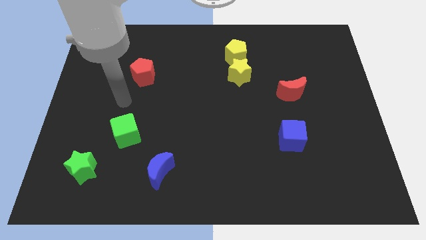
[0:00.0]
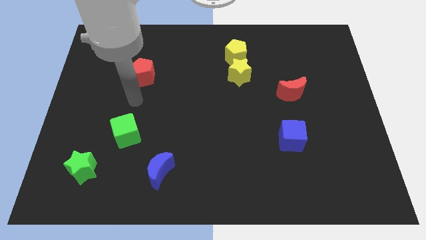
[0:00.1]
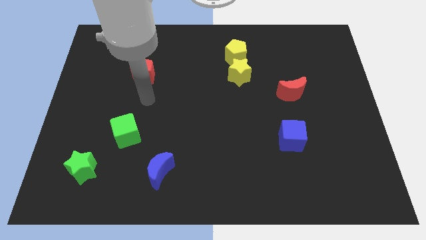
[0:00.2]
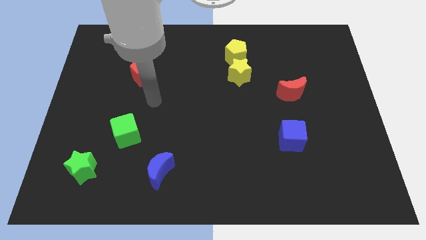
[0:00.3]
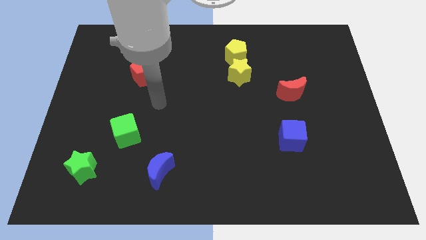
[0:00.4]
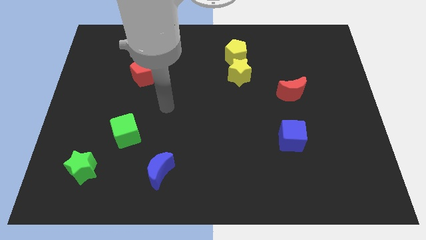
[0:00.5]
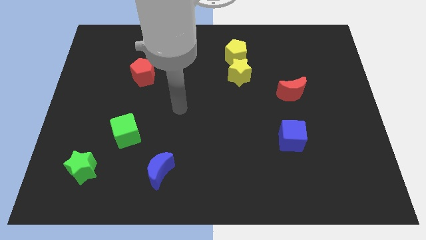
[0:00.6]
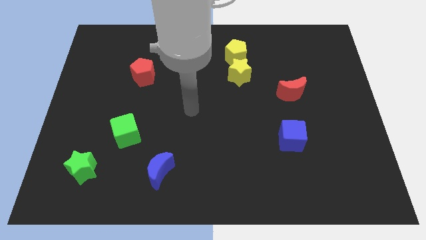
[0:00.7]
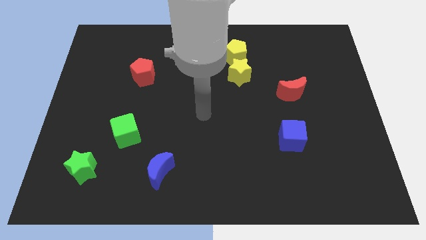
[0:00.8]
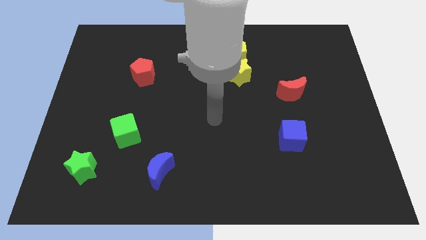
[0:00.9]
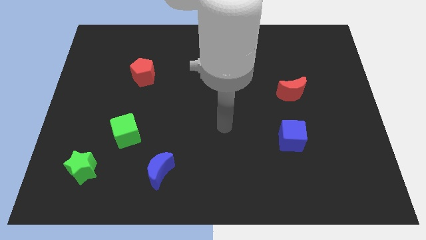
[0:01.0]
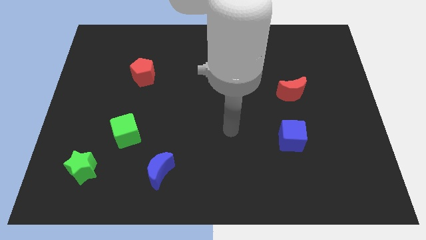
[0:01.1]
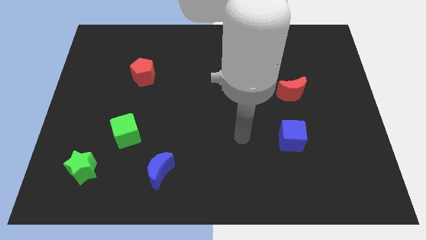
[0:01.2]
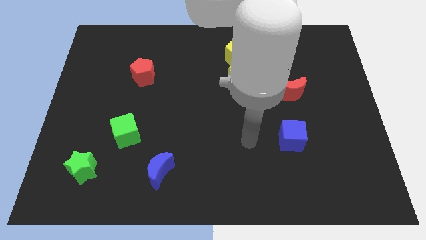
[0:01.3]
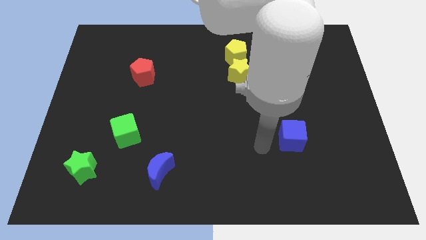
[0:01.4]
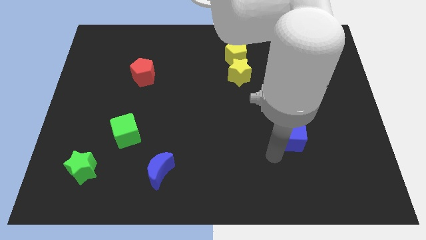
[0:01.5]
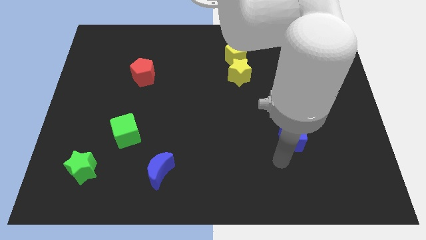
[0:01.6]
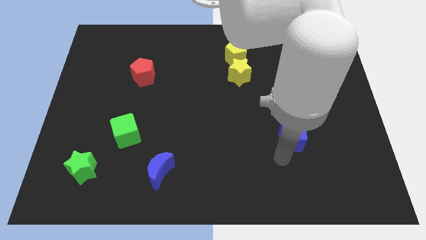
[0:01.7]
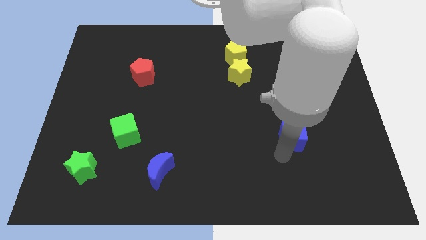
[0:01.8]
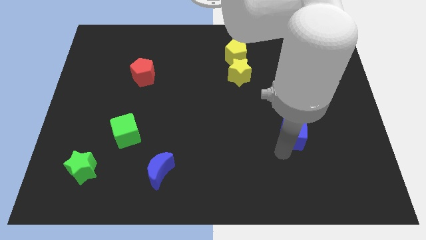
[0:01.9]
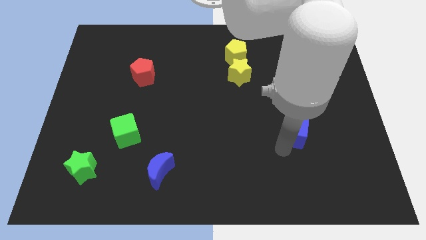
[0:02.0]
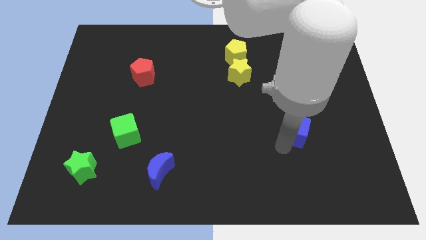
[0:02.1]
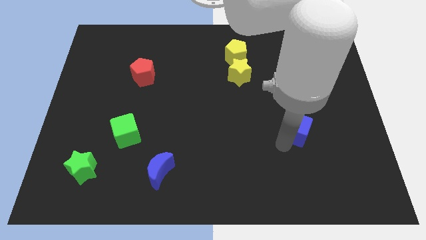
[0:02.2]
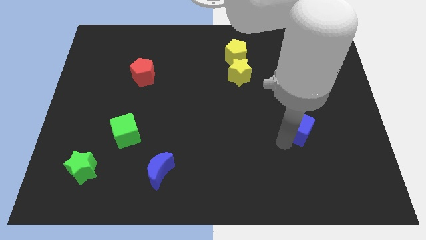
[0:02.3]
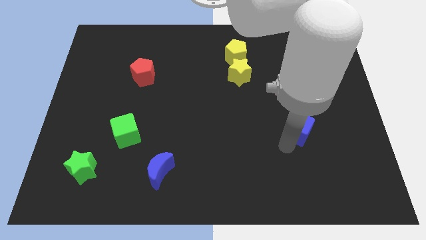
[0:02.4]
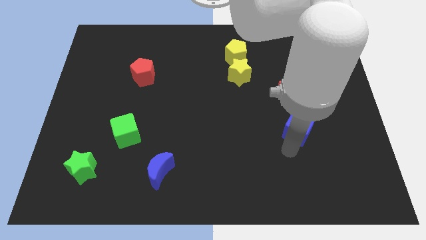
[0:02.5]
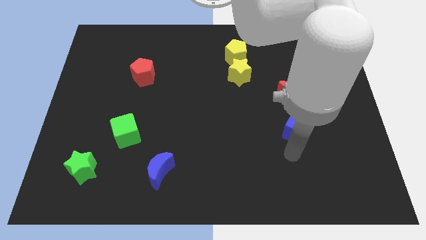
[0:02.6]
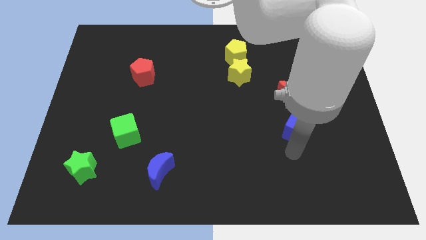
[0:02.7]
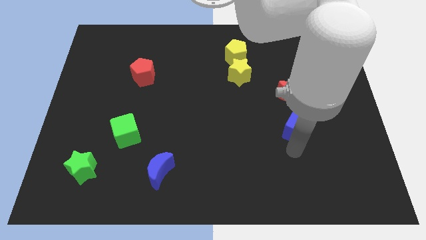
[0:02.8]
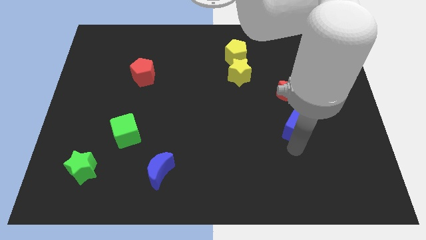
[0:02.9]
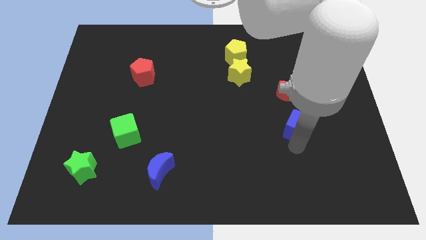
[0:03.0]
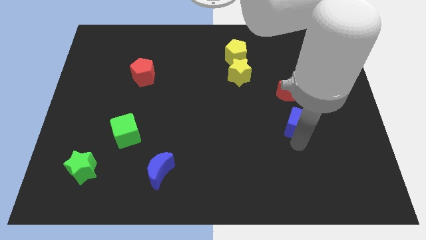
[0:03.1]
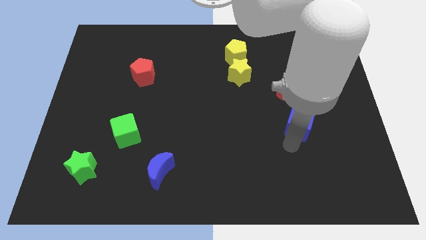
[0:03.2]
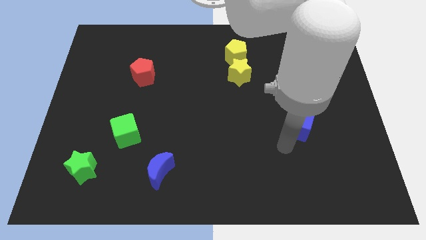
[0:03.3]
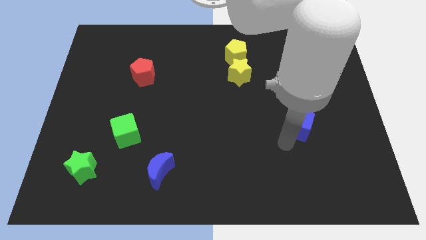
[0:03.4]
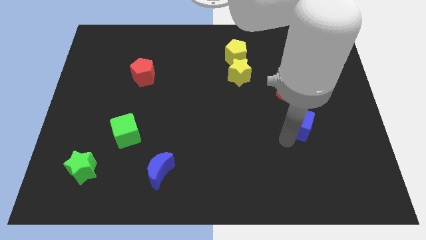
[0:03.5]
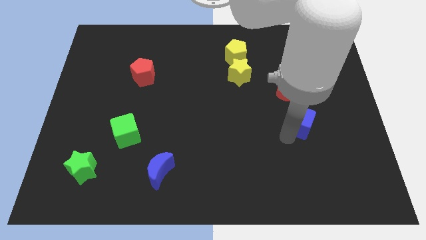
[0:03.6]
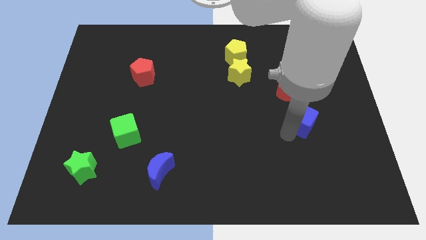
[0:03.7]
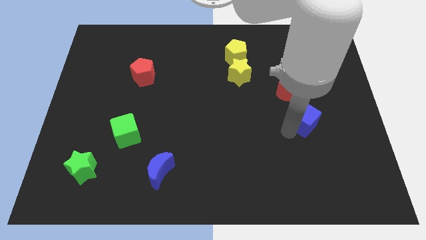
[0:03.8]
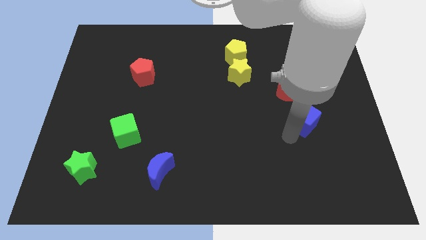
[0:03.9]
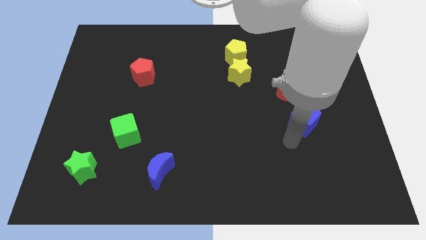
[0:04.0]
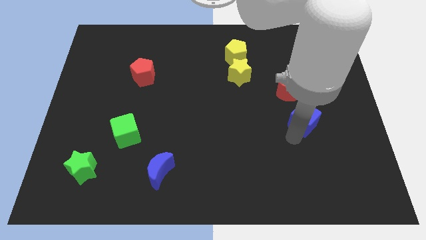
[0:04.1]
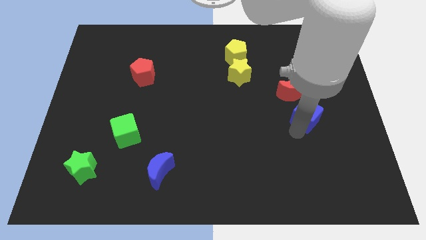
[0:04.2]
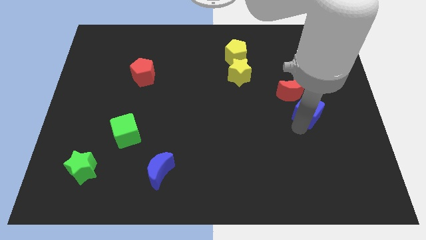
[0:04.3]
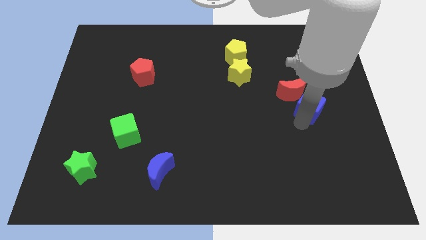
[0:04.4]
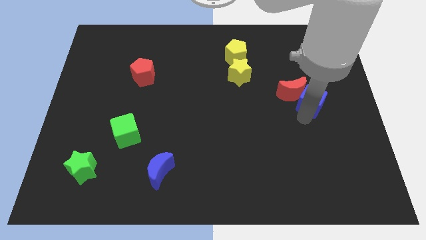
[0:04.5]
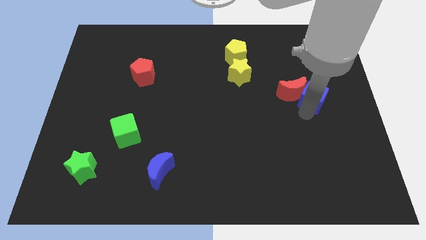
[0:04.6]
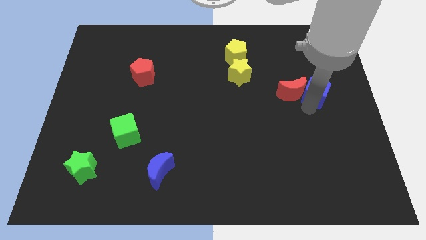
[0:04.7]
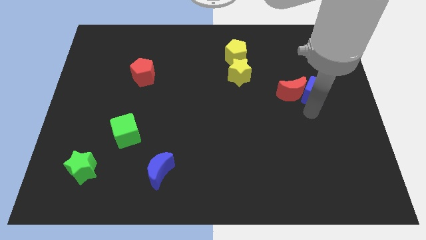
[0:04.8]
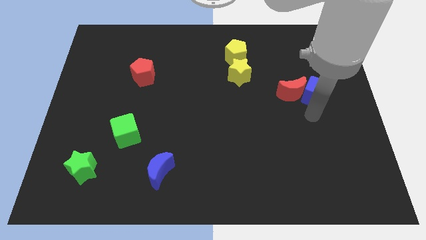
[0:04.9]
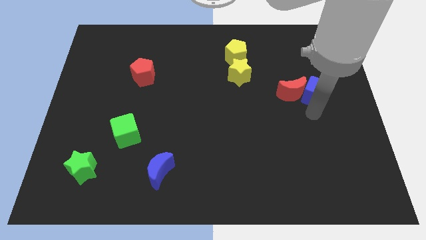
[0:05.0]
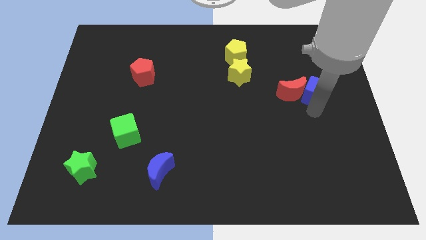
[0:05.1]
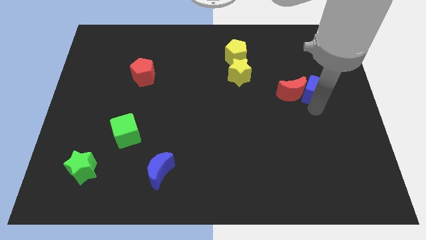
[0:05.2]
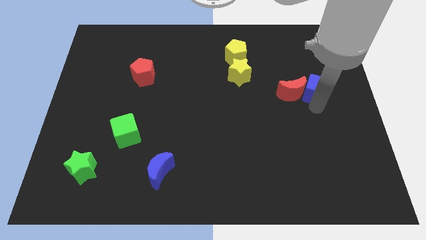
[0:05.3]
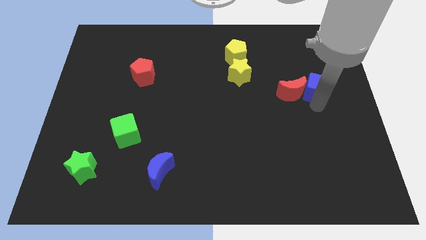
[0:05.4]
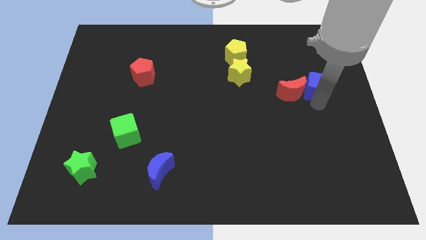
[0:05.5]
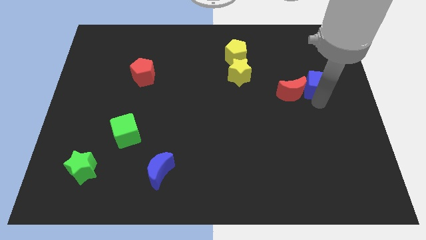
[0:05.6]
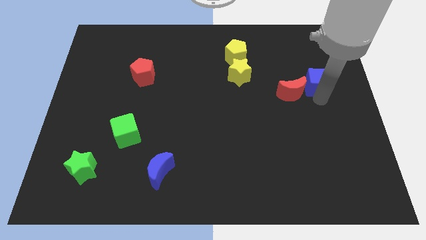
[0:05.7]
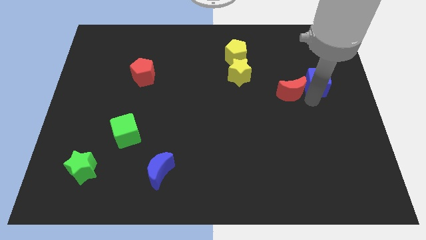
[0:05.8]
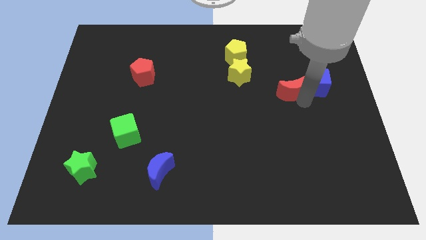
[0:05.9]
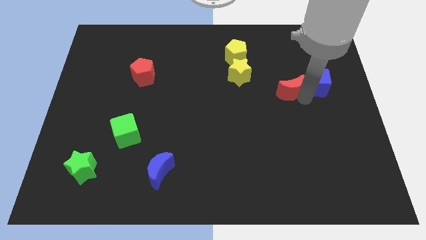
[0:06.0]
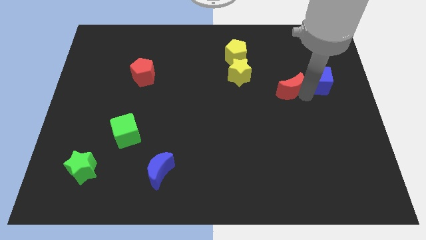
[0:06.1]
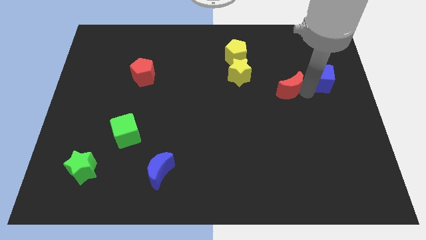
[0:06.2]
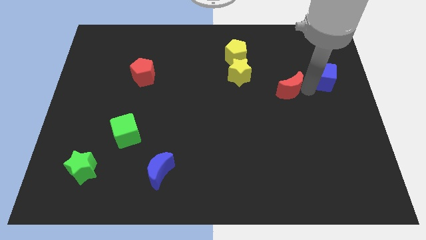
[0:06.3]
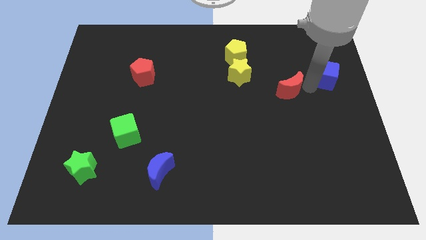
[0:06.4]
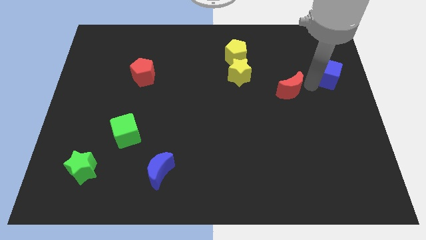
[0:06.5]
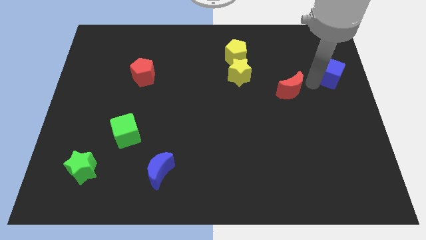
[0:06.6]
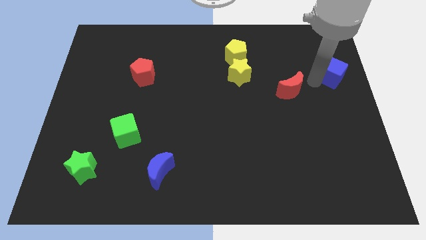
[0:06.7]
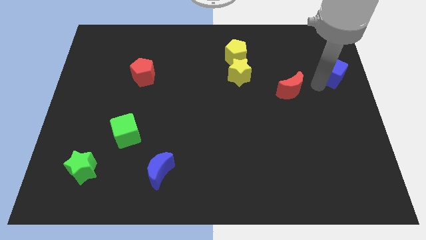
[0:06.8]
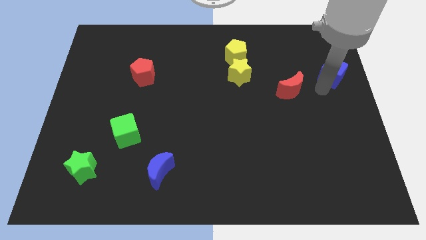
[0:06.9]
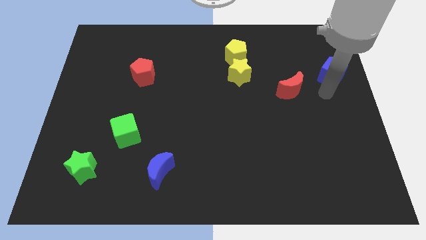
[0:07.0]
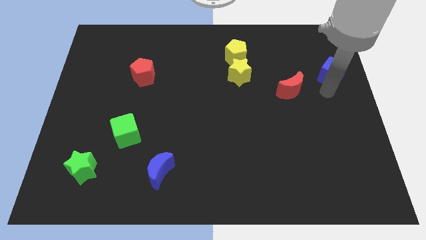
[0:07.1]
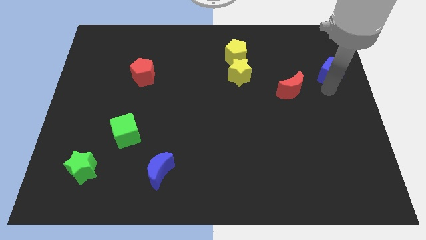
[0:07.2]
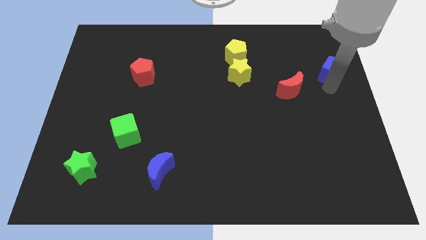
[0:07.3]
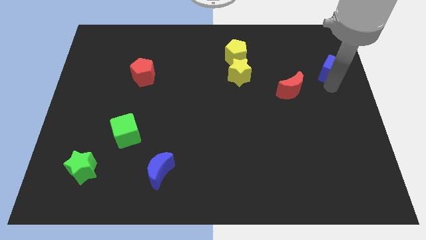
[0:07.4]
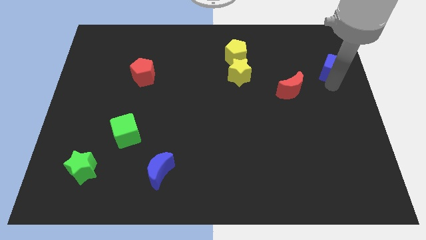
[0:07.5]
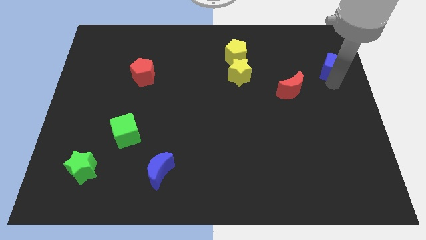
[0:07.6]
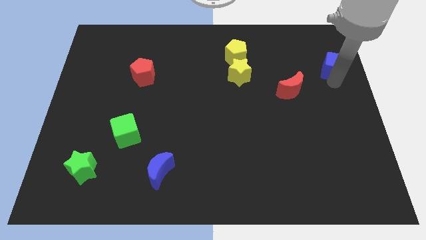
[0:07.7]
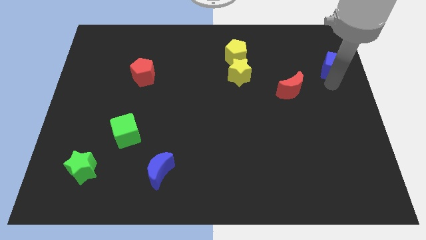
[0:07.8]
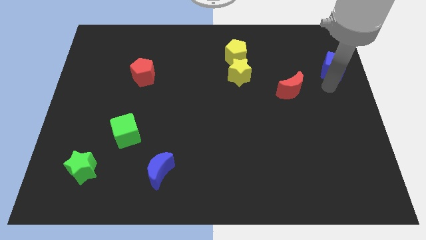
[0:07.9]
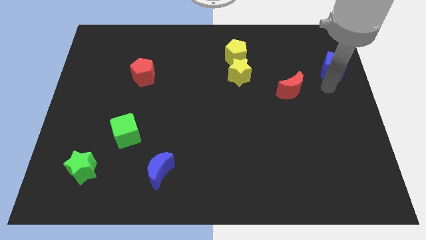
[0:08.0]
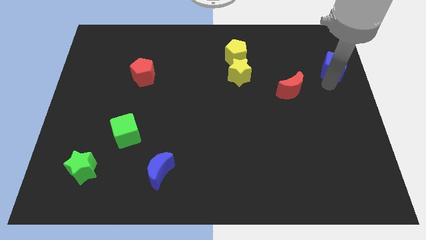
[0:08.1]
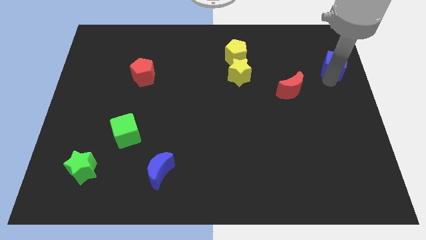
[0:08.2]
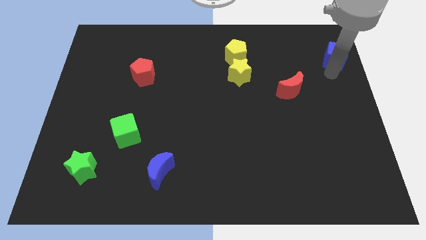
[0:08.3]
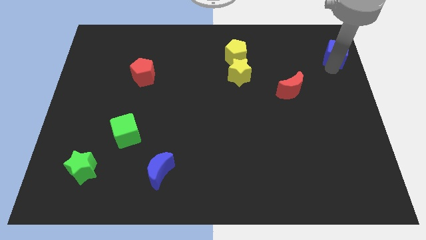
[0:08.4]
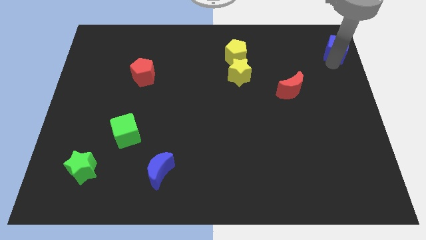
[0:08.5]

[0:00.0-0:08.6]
push the blue cube to the upper right corner
